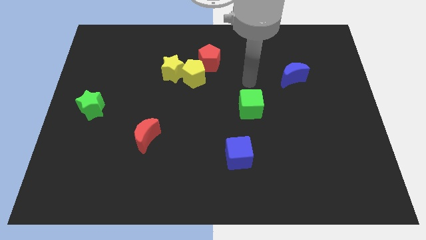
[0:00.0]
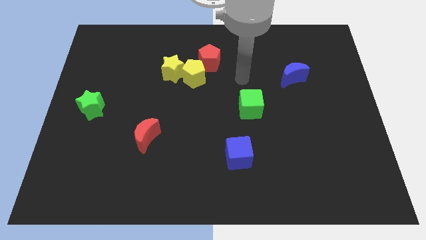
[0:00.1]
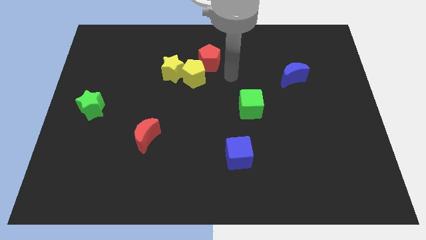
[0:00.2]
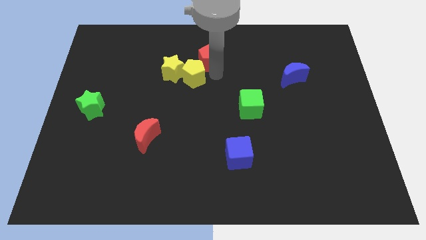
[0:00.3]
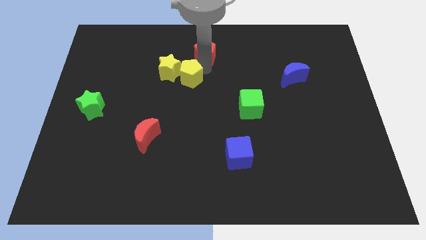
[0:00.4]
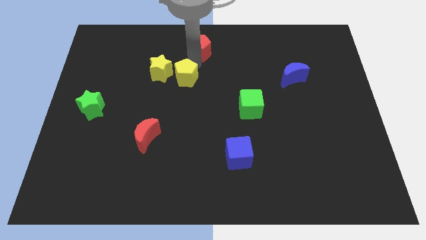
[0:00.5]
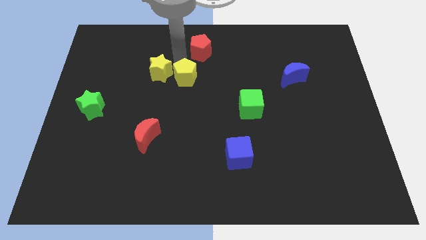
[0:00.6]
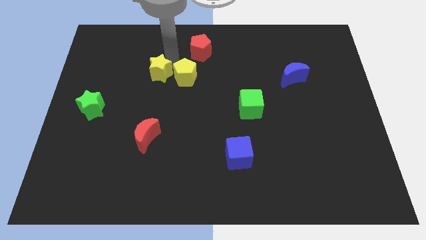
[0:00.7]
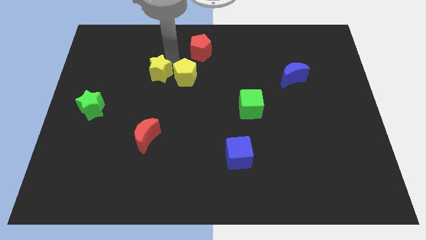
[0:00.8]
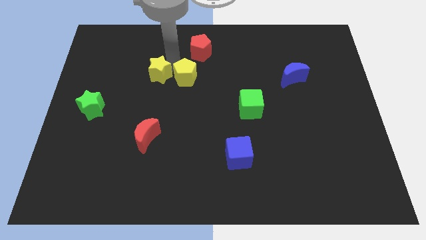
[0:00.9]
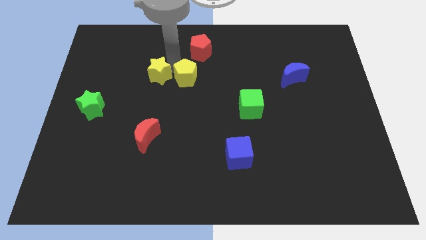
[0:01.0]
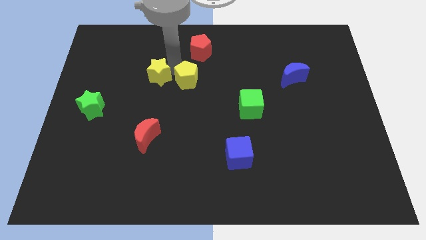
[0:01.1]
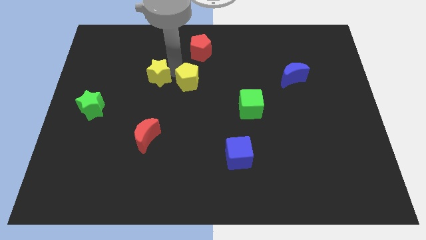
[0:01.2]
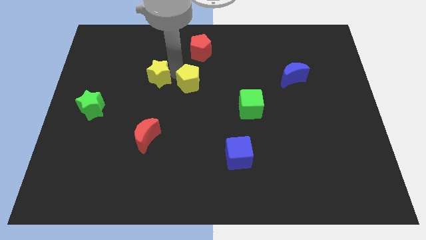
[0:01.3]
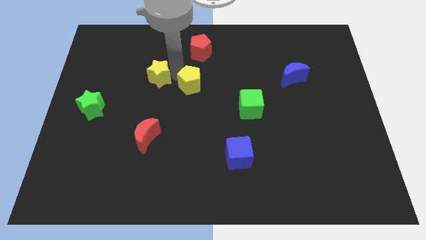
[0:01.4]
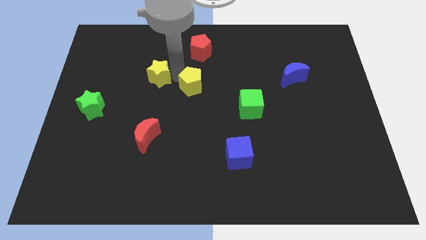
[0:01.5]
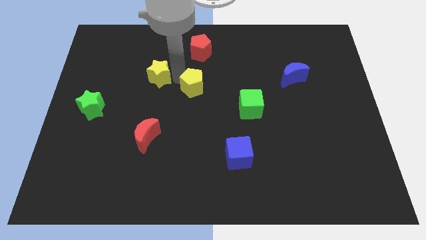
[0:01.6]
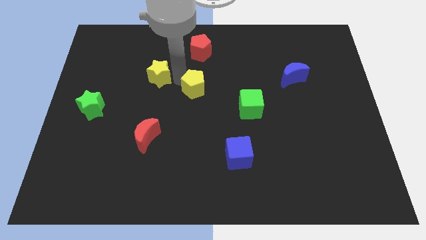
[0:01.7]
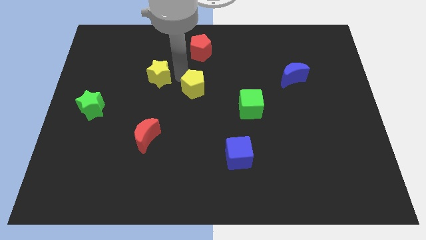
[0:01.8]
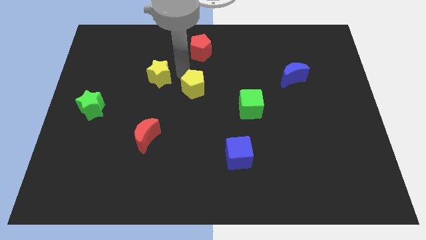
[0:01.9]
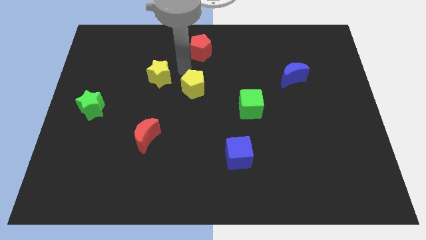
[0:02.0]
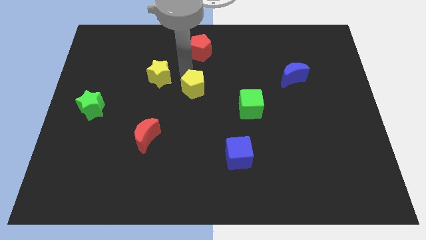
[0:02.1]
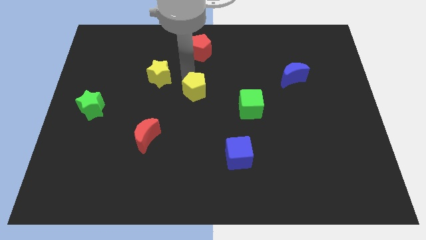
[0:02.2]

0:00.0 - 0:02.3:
pull the yellow pentagon apart from the yellow star and red pentagon

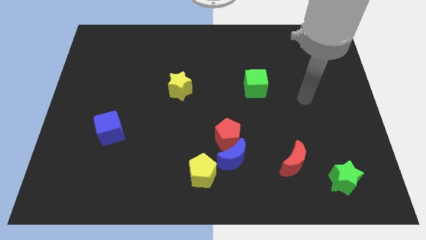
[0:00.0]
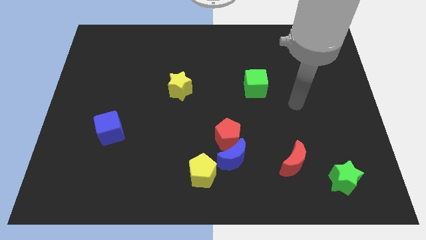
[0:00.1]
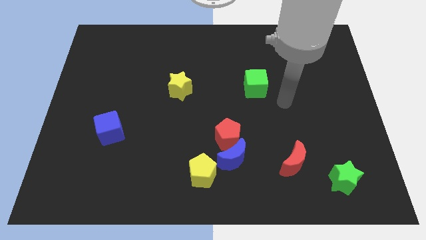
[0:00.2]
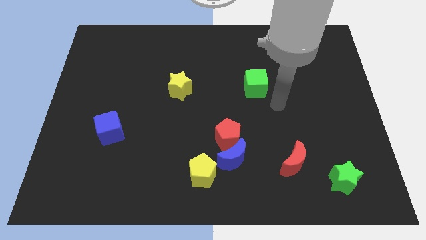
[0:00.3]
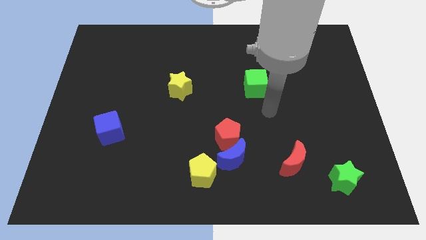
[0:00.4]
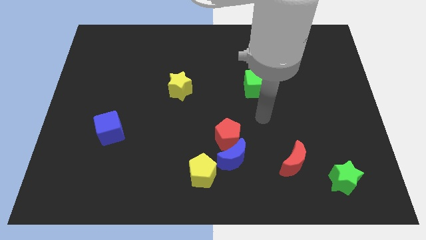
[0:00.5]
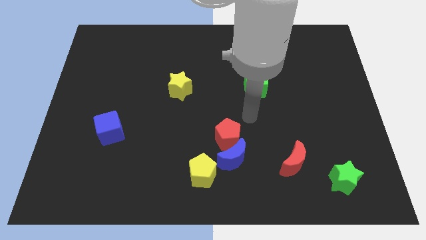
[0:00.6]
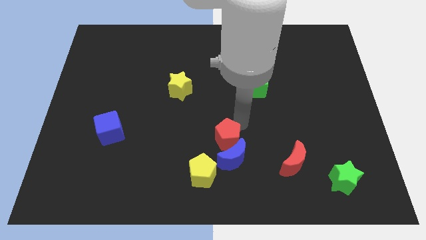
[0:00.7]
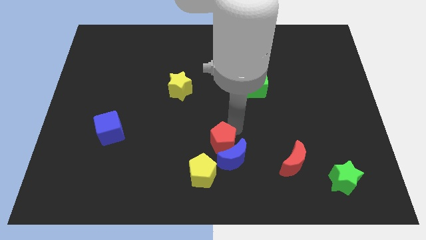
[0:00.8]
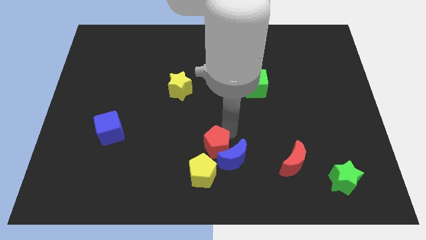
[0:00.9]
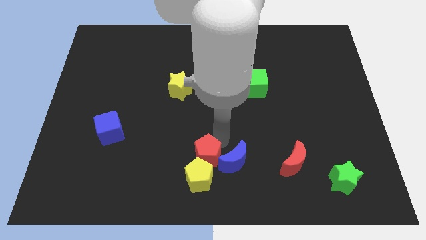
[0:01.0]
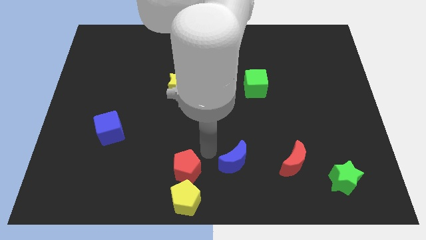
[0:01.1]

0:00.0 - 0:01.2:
separate the blue moon from the red pentagon and yellow pentagon

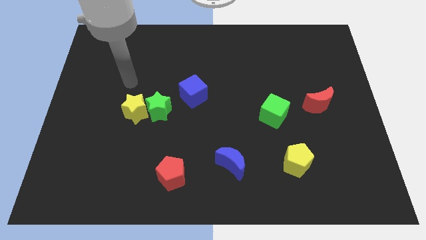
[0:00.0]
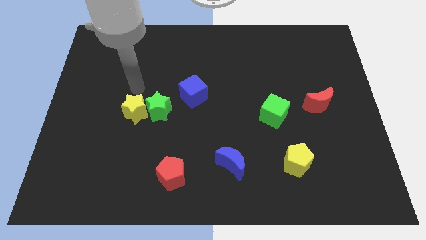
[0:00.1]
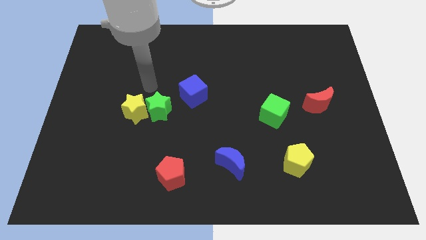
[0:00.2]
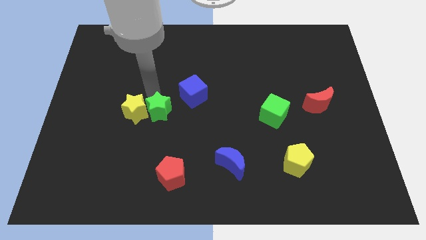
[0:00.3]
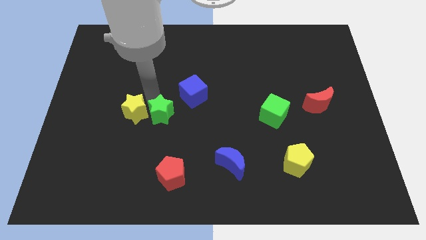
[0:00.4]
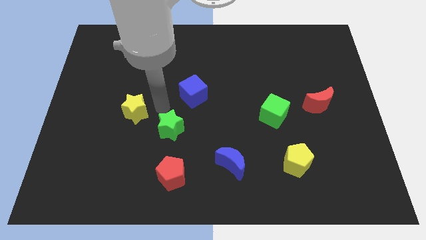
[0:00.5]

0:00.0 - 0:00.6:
move the yellow star away from the green star

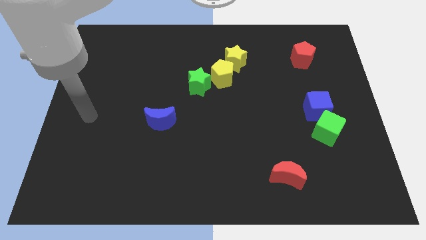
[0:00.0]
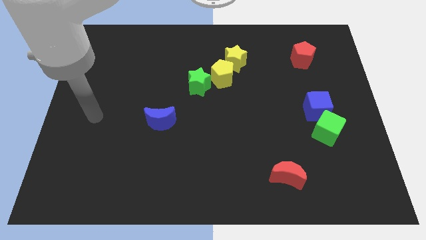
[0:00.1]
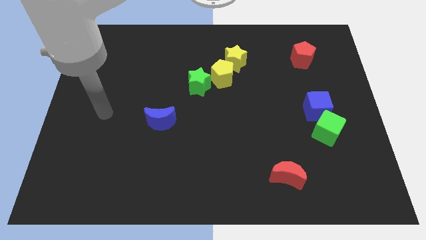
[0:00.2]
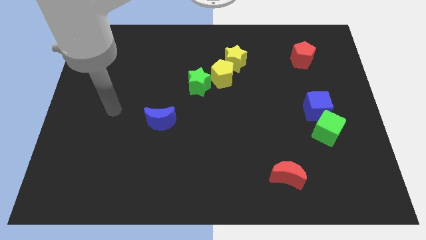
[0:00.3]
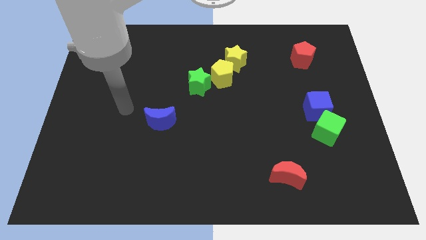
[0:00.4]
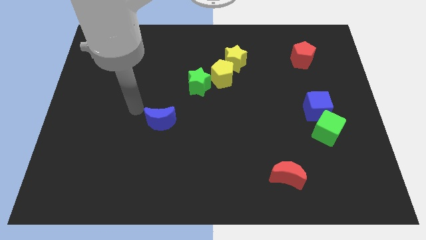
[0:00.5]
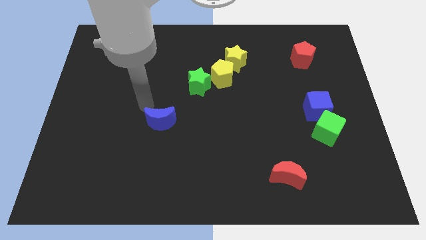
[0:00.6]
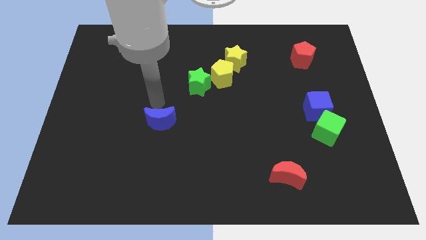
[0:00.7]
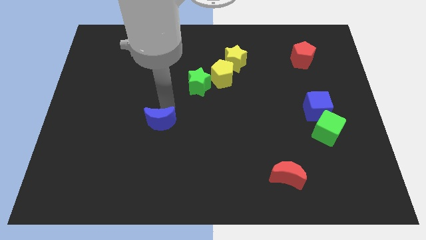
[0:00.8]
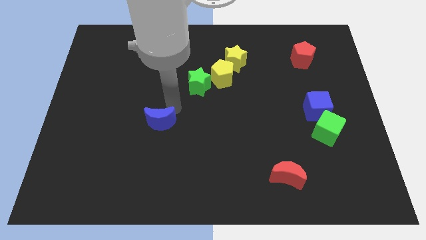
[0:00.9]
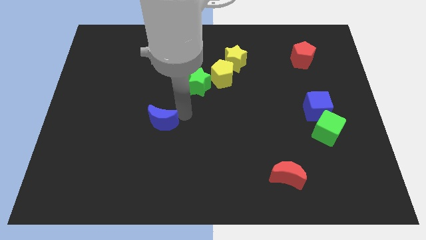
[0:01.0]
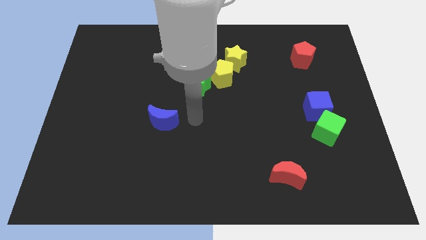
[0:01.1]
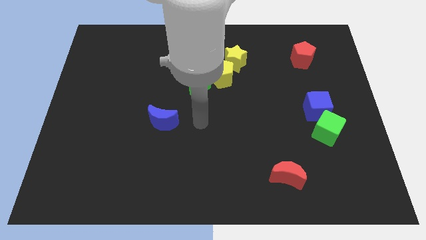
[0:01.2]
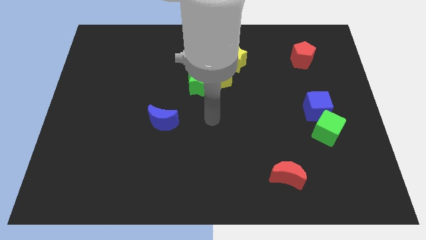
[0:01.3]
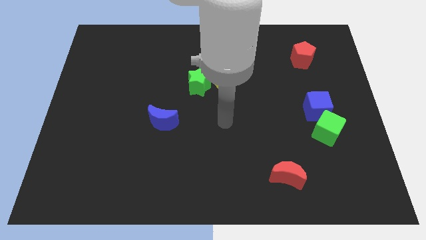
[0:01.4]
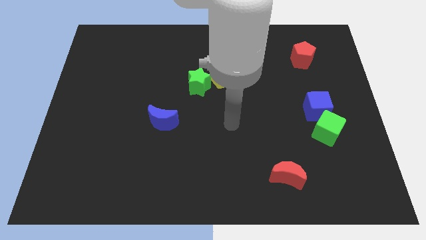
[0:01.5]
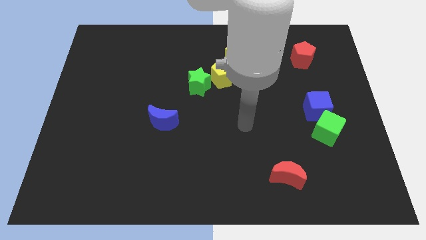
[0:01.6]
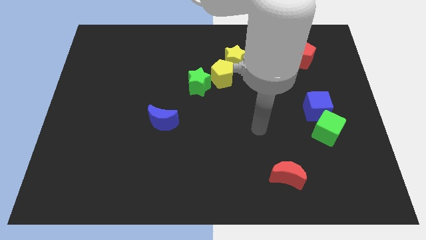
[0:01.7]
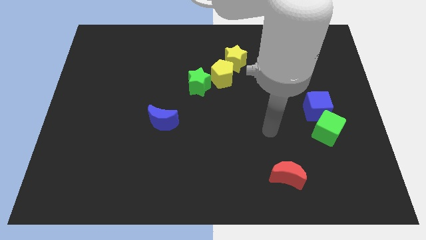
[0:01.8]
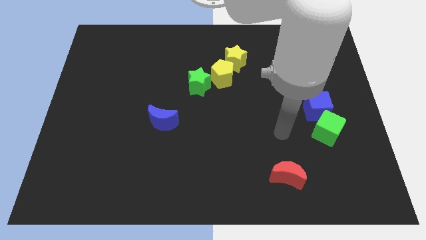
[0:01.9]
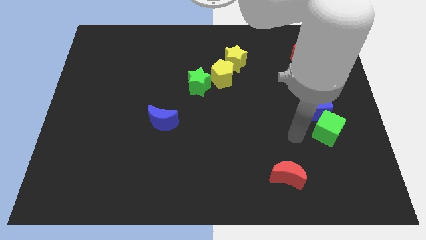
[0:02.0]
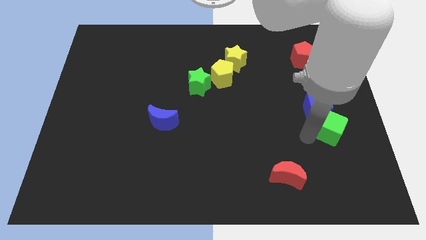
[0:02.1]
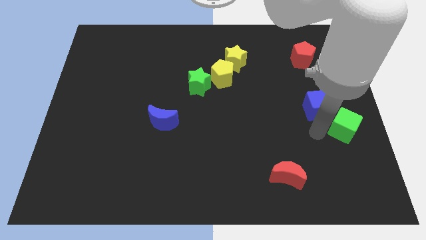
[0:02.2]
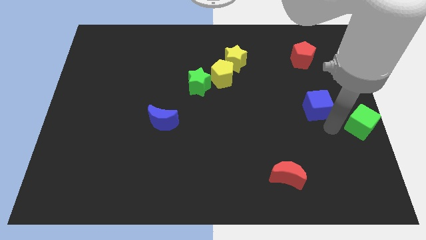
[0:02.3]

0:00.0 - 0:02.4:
move the blue cube away from the green cube

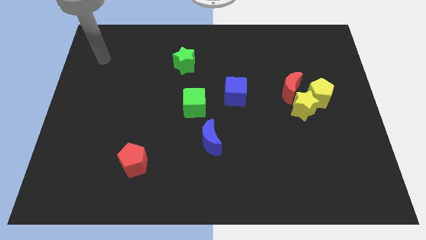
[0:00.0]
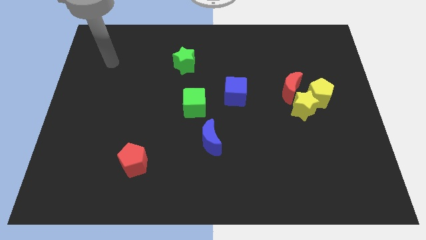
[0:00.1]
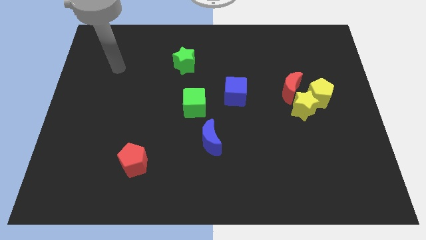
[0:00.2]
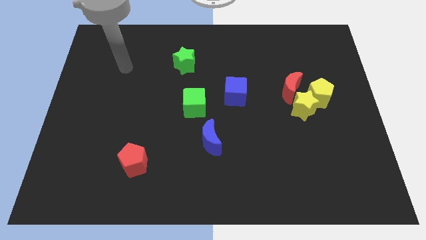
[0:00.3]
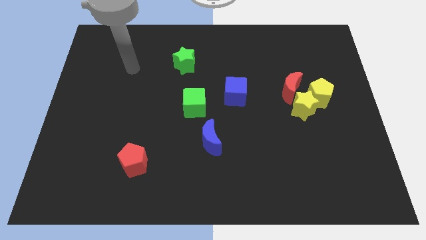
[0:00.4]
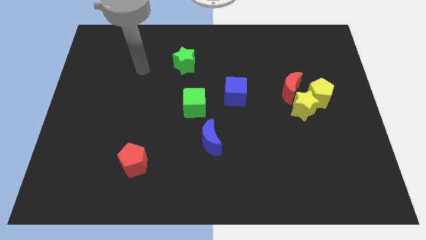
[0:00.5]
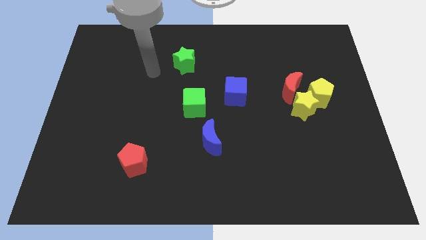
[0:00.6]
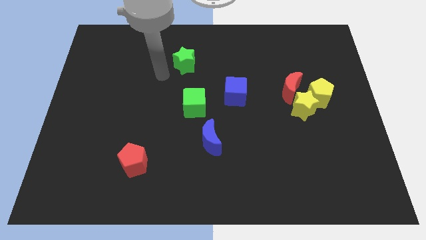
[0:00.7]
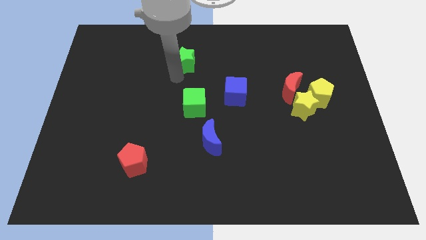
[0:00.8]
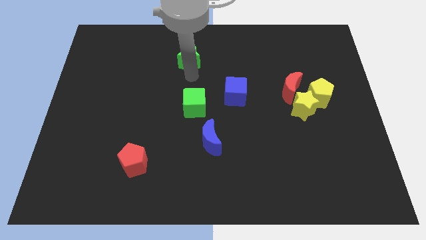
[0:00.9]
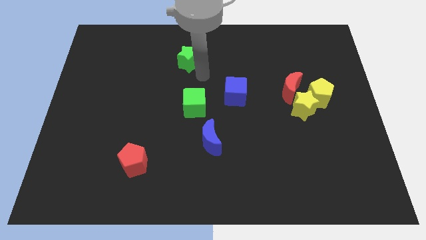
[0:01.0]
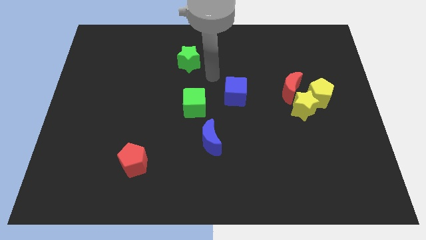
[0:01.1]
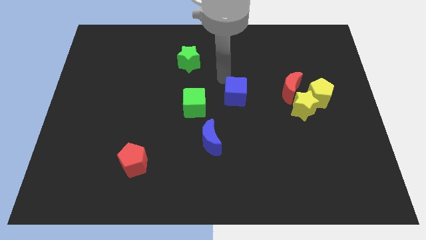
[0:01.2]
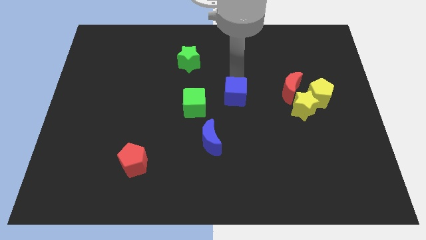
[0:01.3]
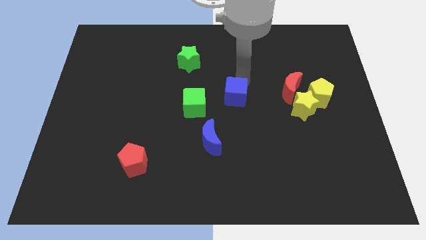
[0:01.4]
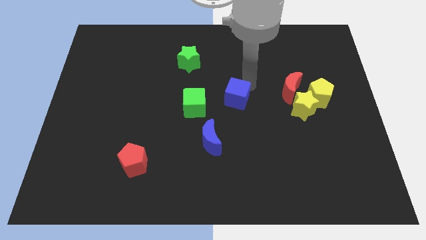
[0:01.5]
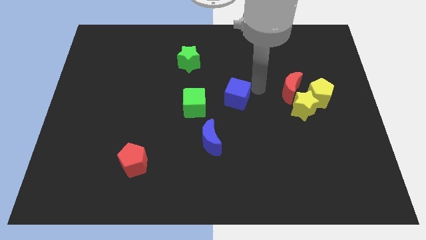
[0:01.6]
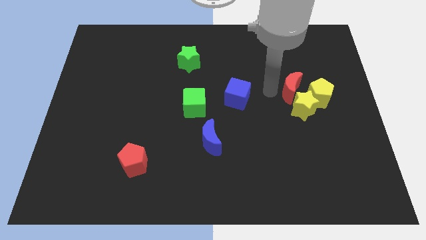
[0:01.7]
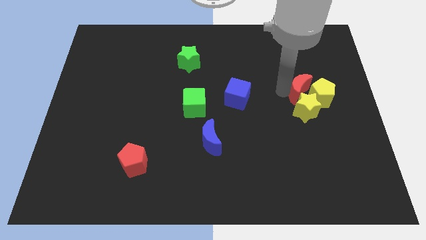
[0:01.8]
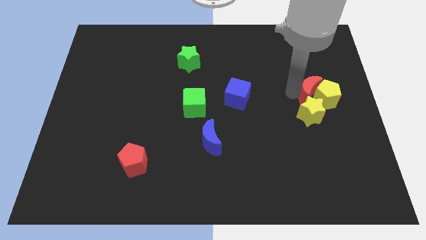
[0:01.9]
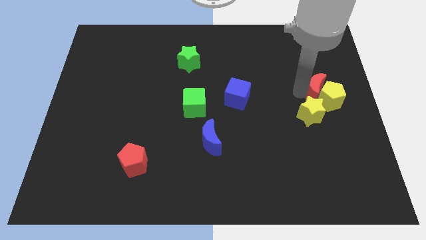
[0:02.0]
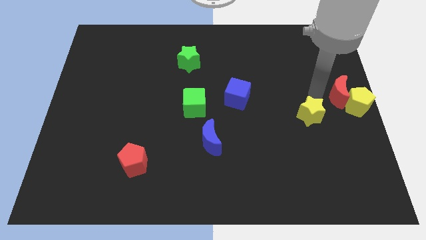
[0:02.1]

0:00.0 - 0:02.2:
pull the yellow star apart from the yellow pentagon and red moon

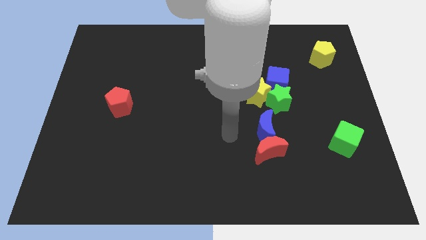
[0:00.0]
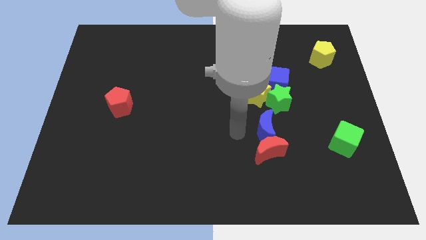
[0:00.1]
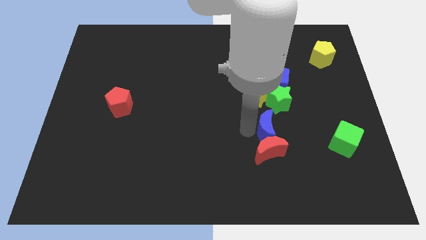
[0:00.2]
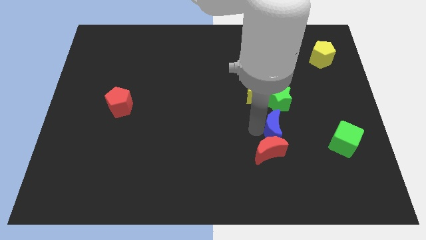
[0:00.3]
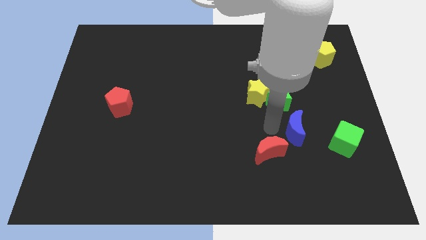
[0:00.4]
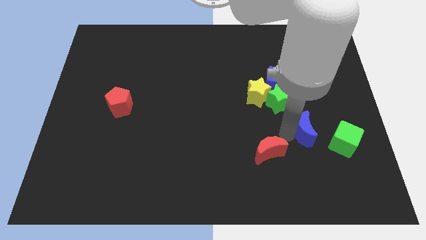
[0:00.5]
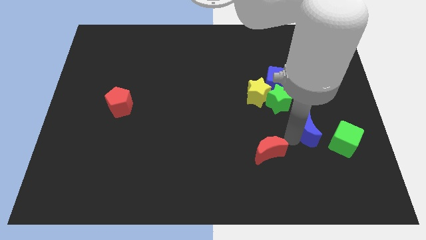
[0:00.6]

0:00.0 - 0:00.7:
separate the red moon from the blue moon
